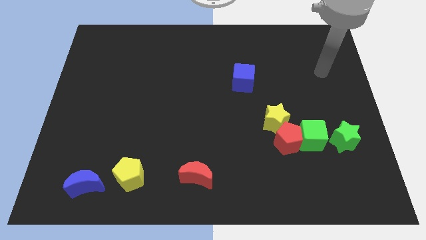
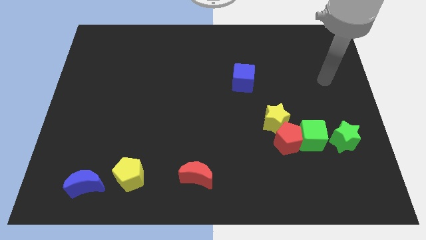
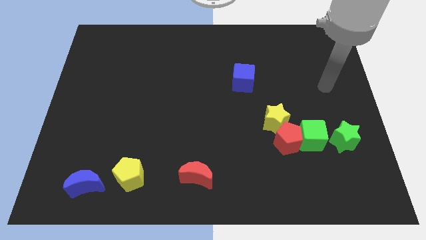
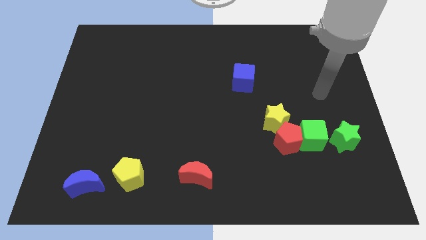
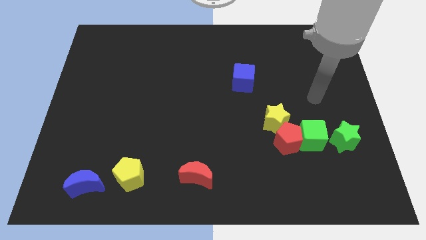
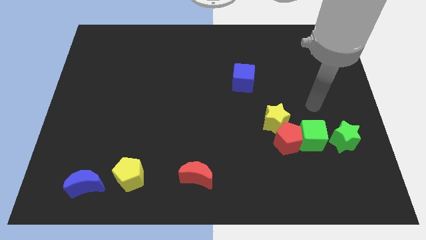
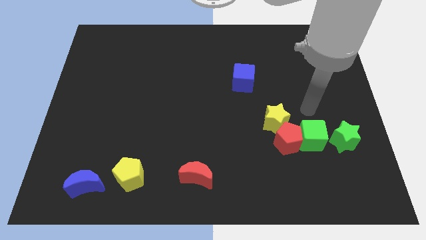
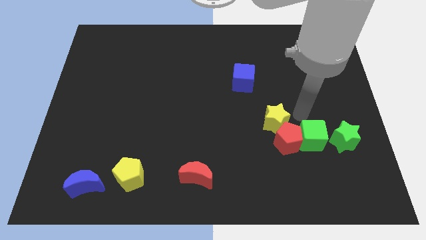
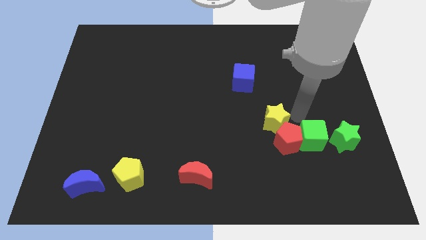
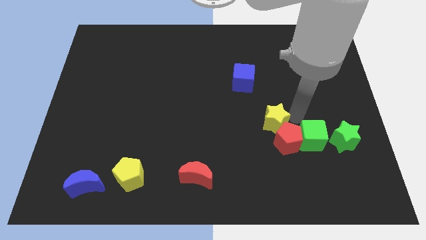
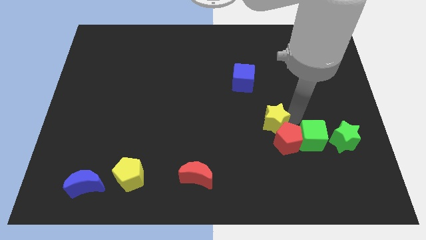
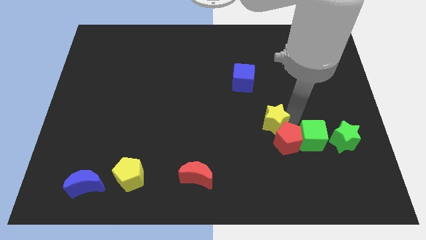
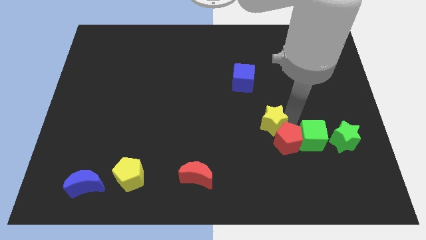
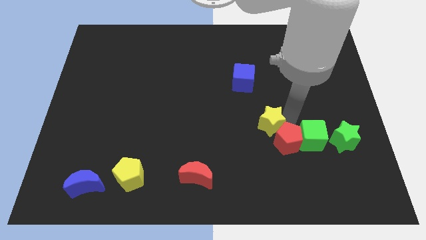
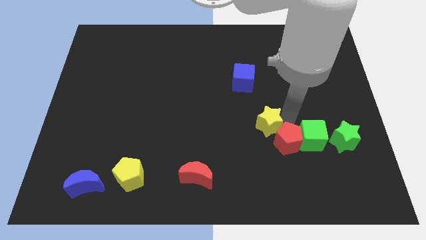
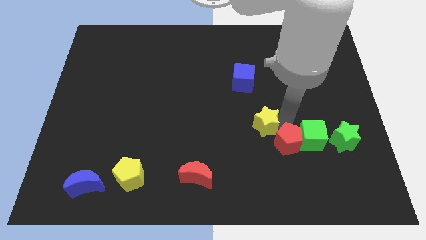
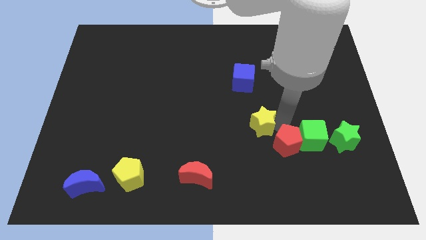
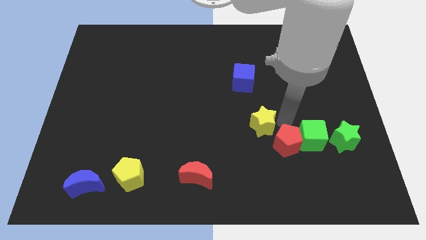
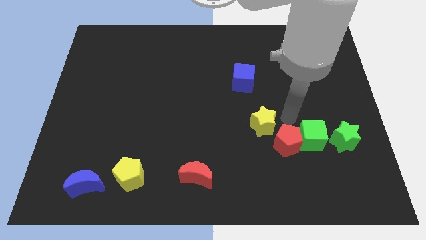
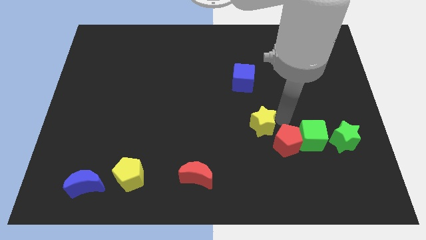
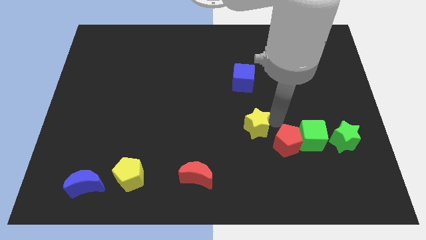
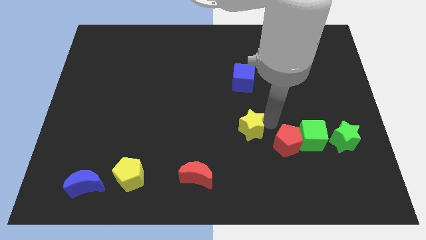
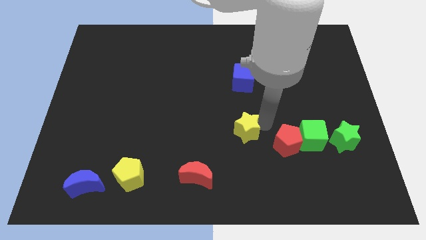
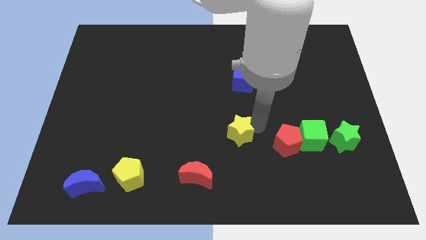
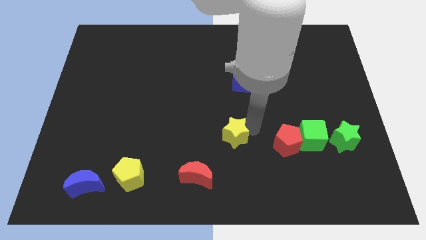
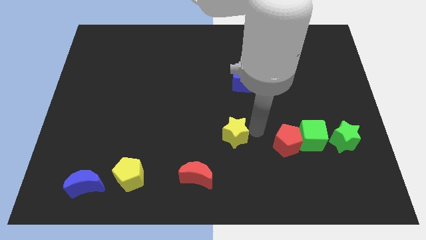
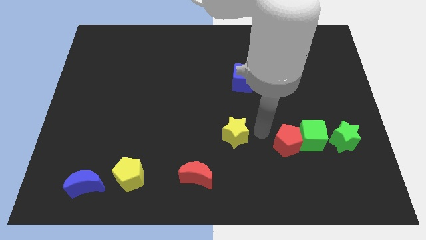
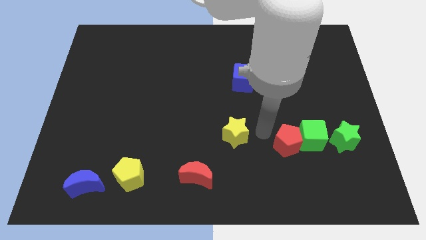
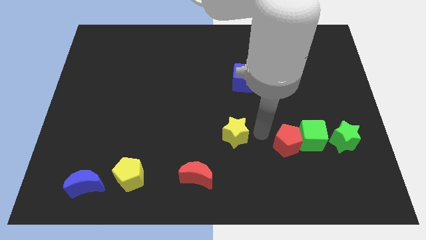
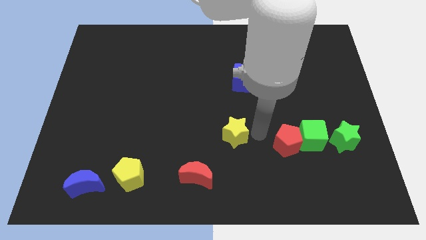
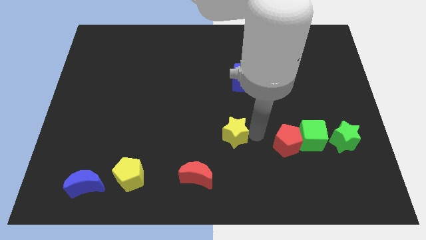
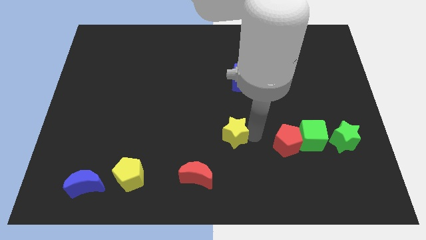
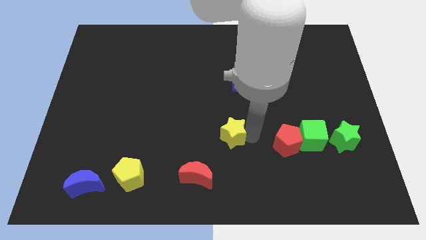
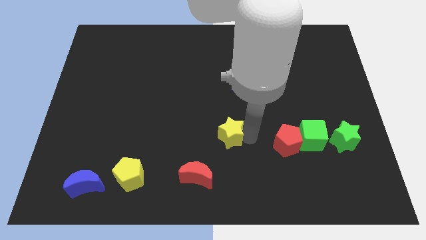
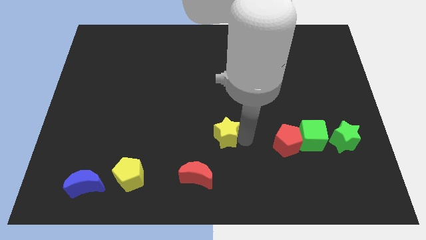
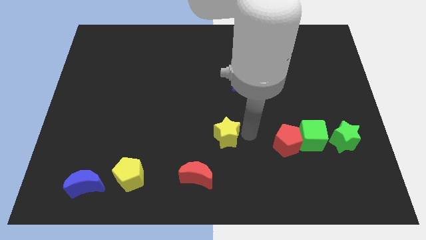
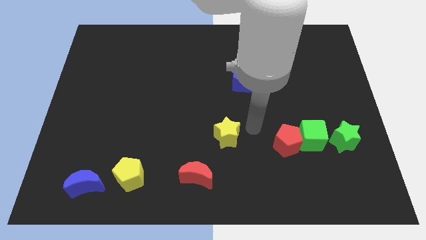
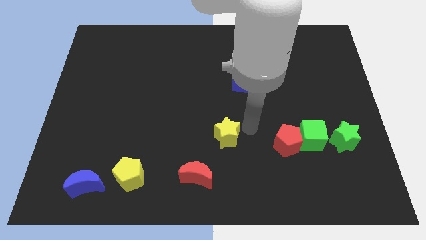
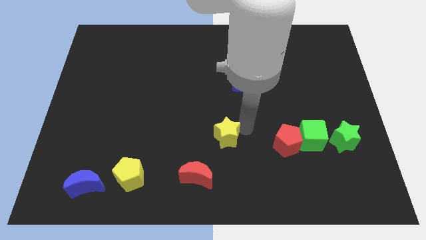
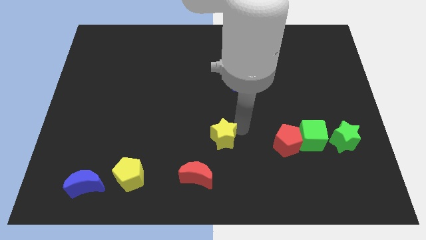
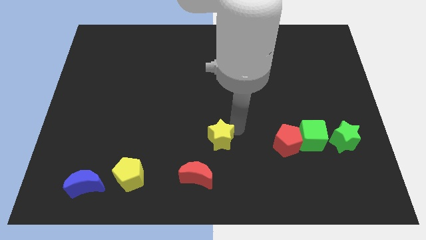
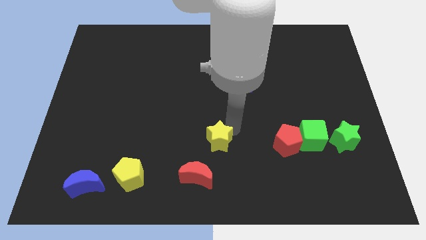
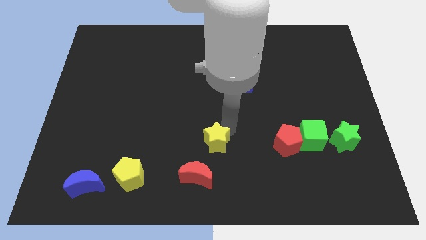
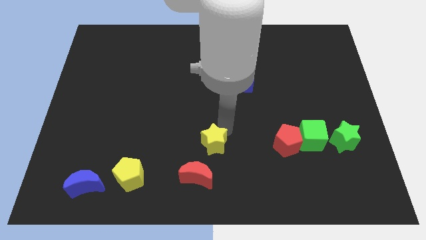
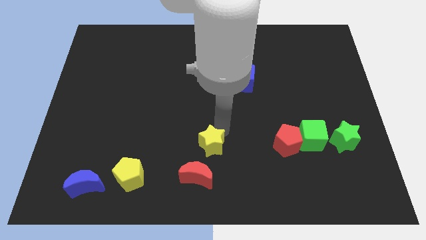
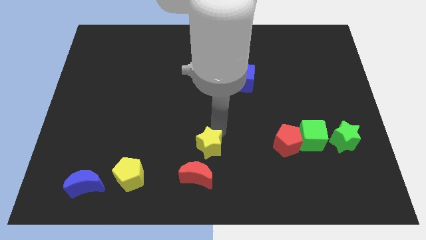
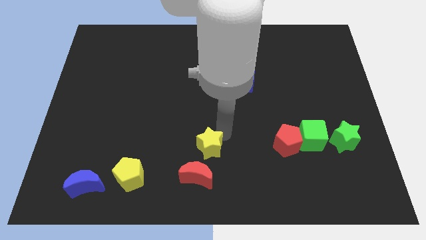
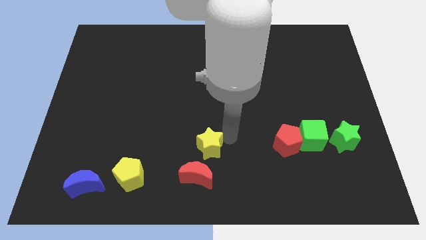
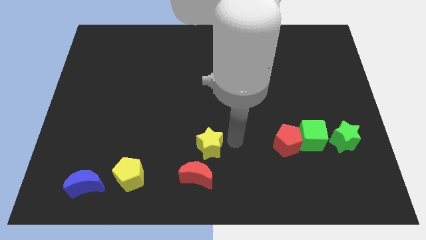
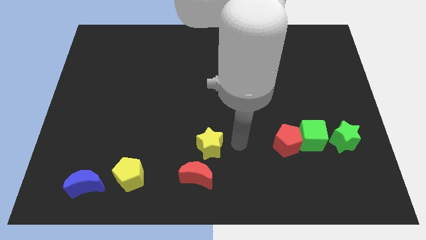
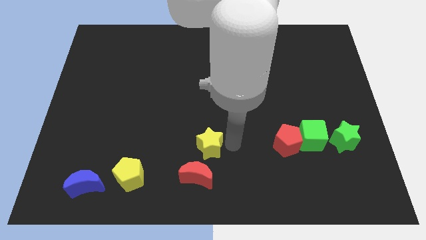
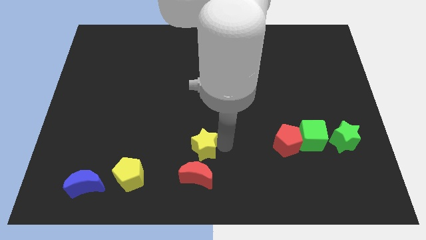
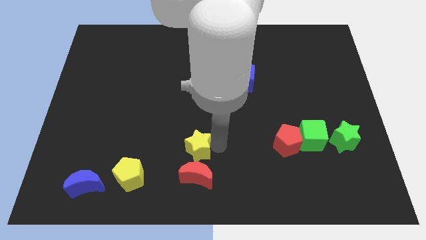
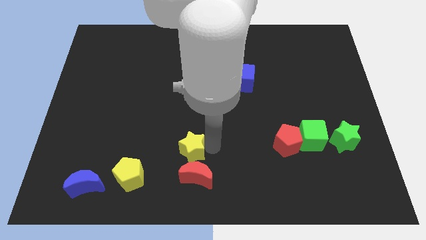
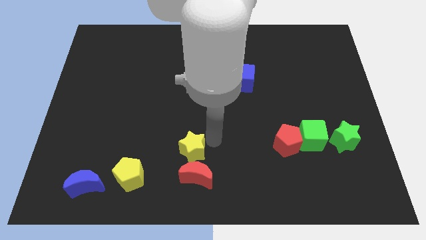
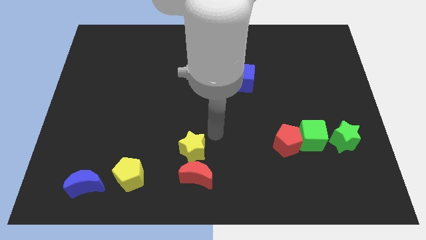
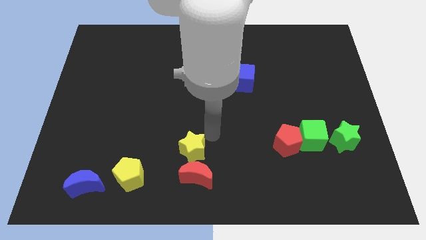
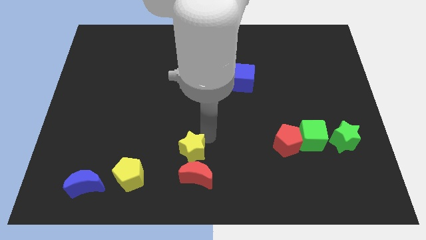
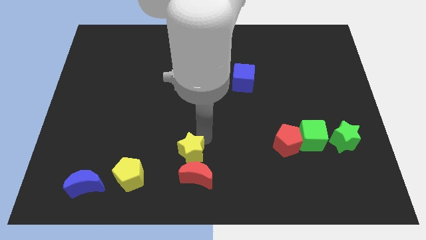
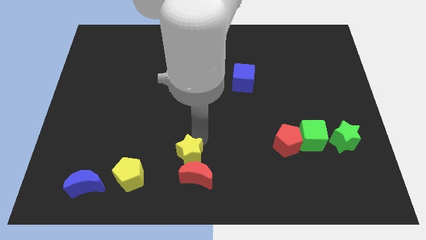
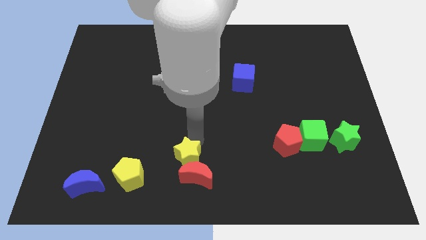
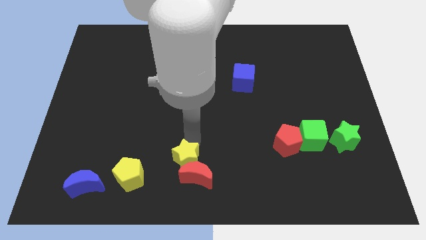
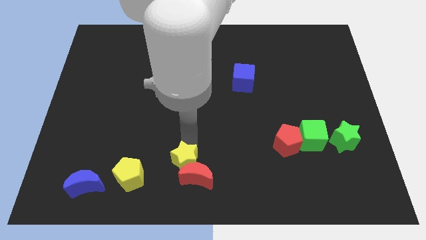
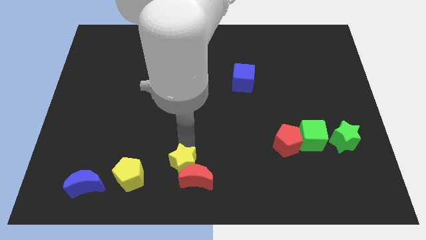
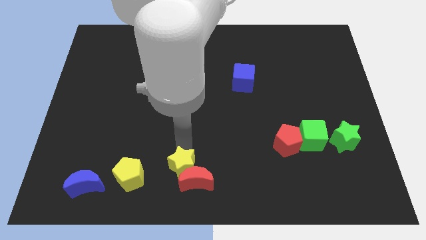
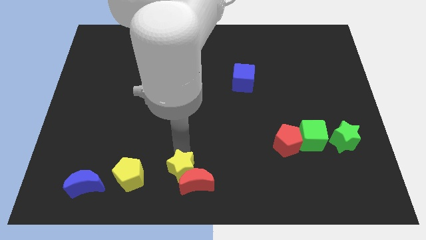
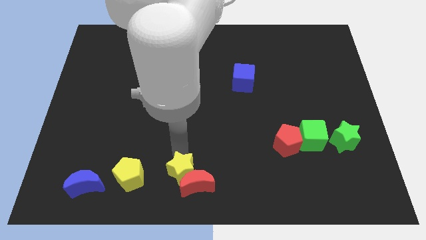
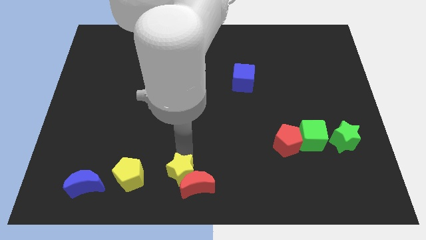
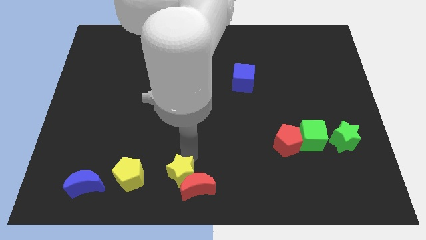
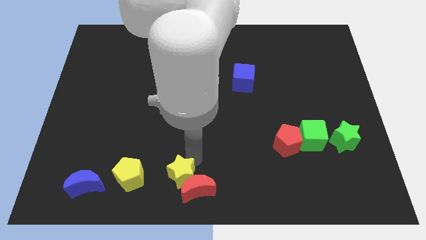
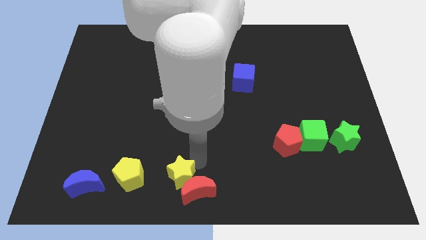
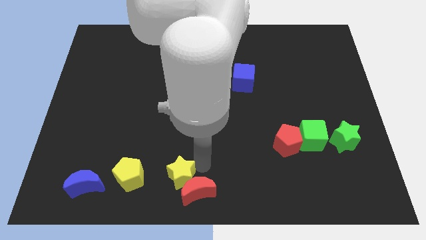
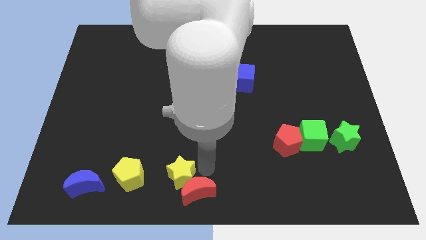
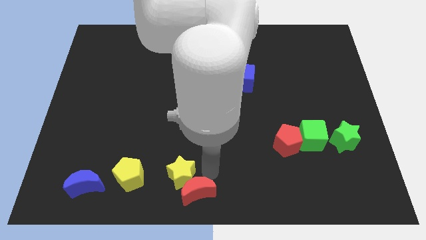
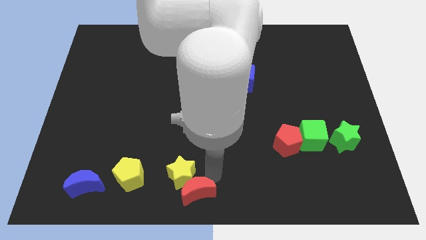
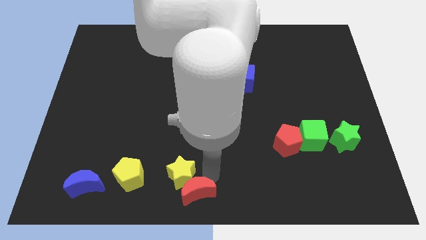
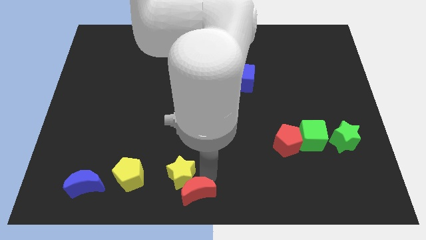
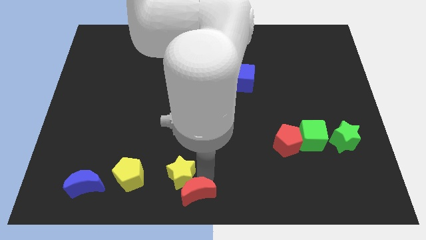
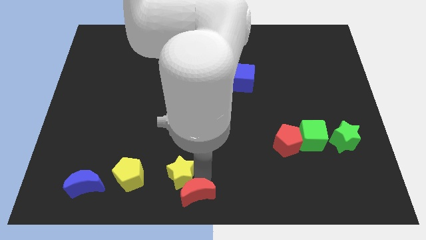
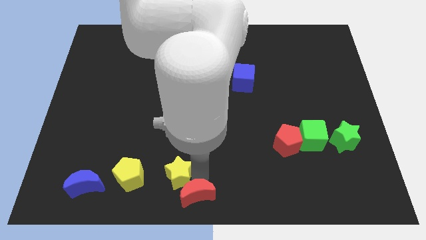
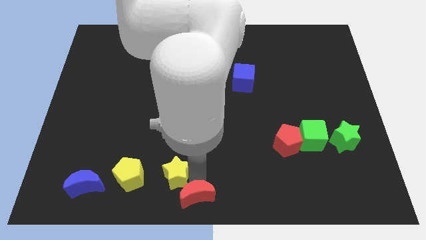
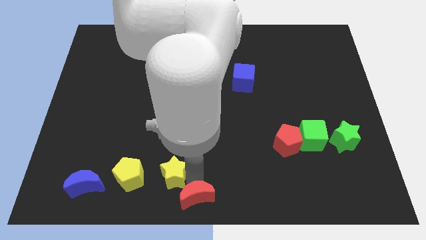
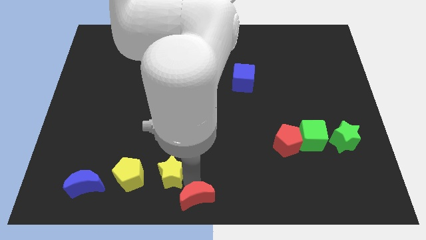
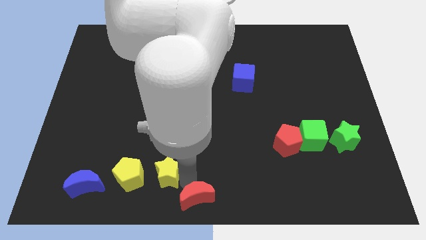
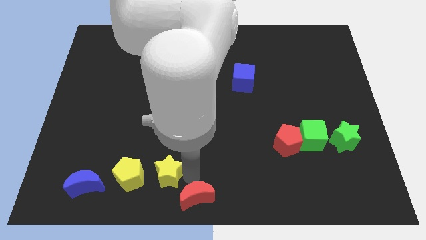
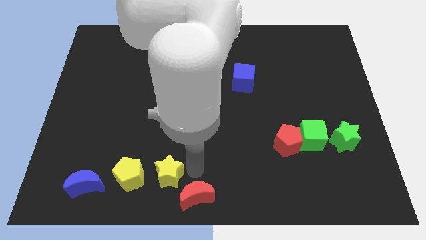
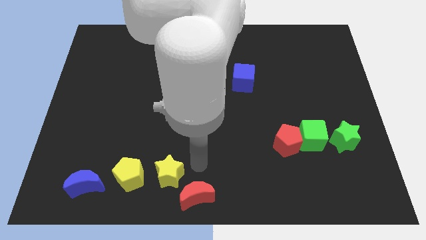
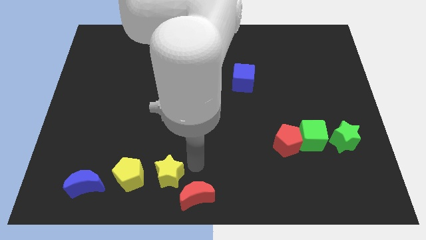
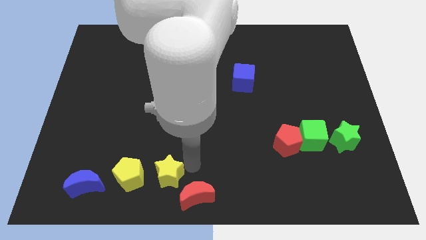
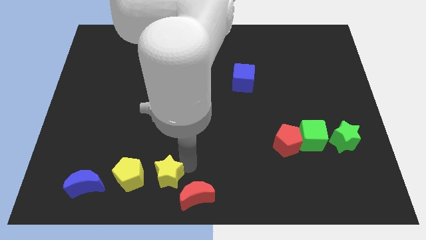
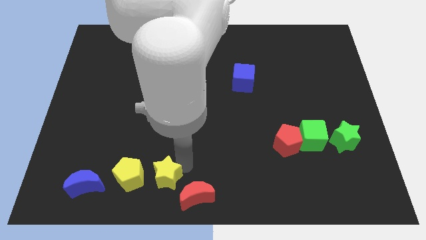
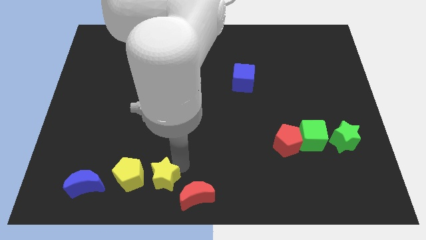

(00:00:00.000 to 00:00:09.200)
push the yellow star to the right of the blue moon
